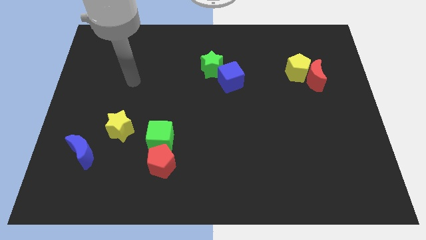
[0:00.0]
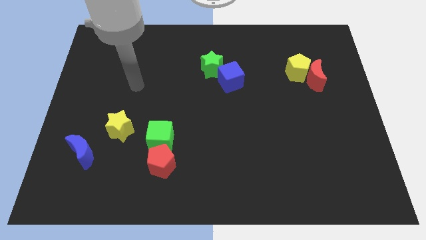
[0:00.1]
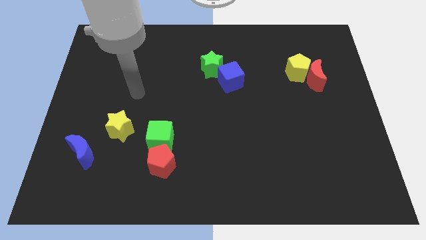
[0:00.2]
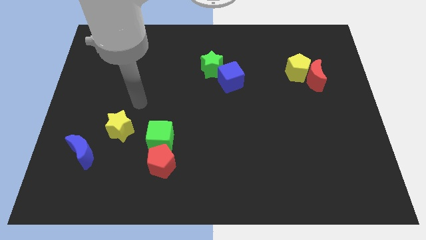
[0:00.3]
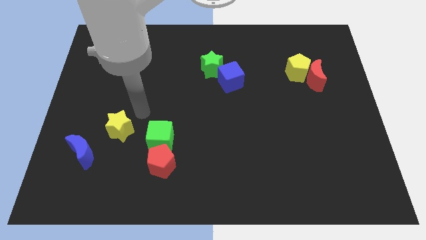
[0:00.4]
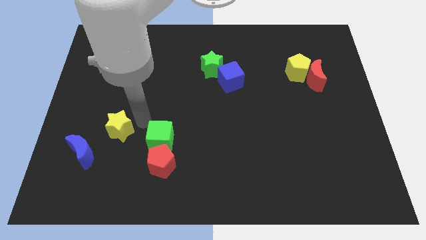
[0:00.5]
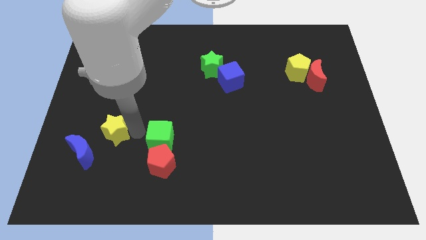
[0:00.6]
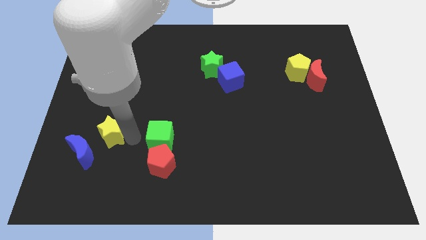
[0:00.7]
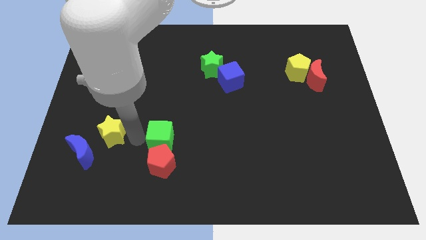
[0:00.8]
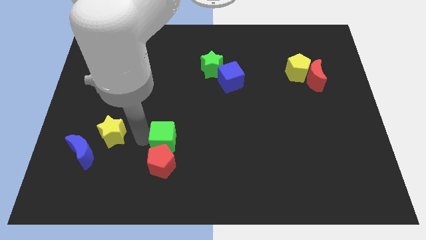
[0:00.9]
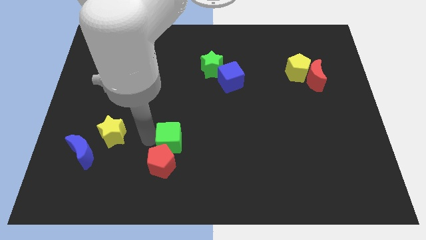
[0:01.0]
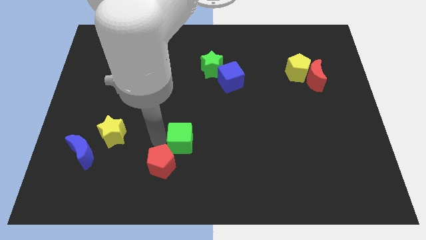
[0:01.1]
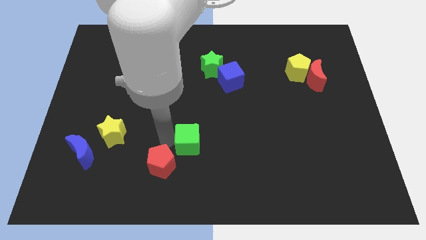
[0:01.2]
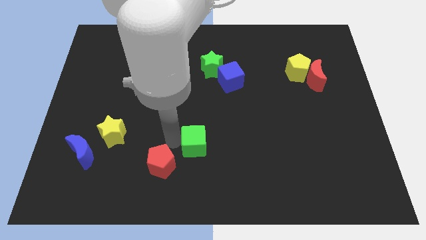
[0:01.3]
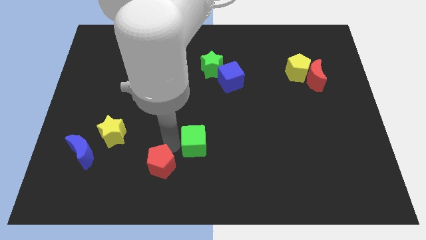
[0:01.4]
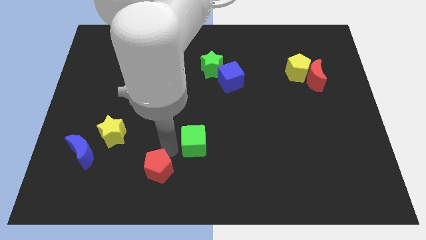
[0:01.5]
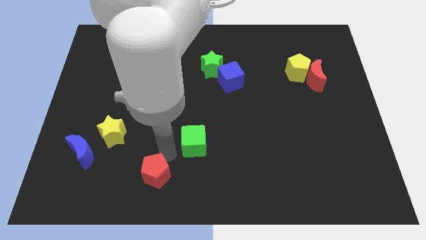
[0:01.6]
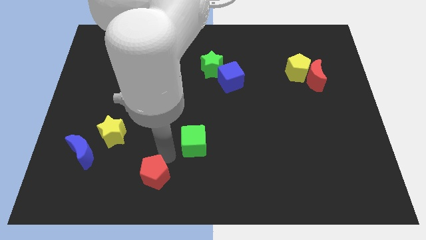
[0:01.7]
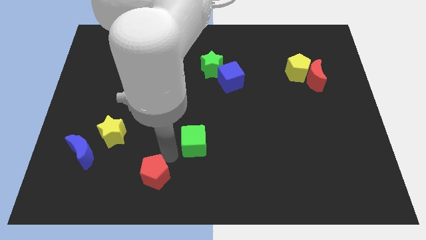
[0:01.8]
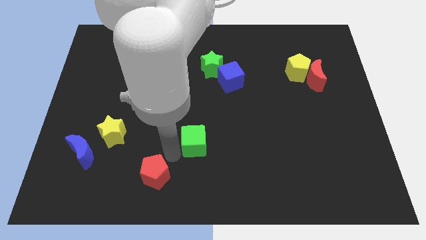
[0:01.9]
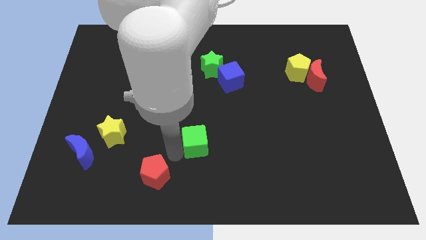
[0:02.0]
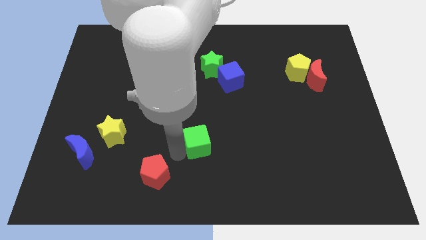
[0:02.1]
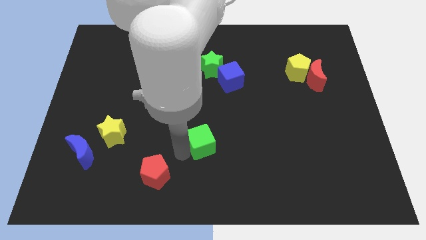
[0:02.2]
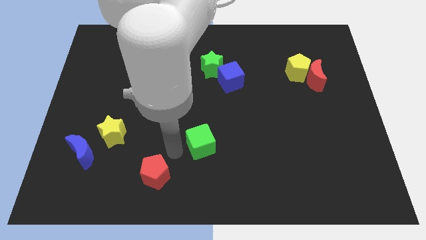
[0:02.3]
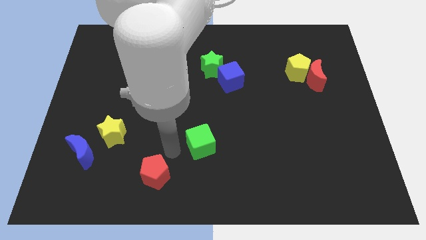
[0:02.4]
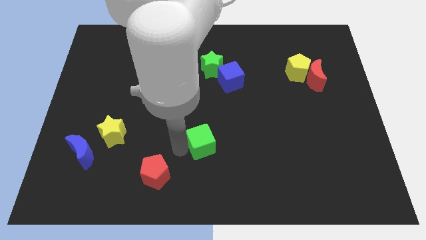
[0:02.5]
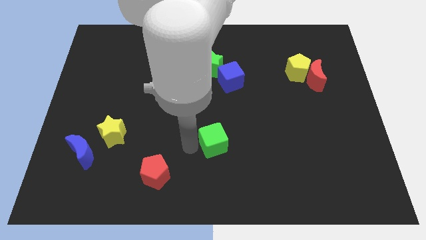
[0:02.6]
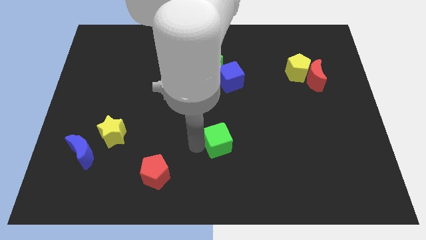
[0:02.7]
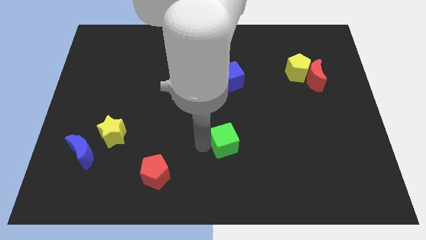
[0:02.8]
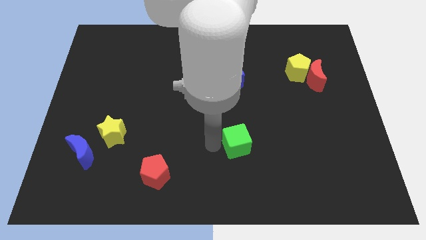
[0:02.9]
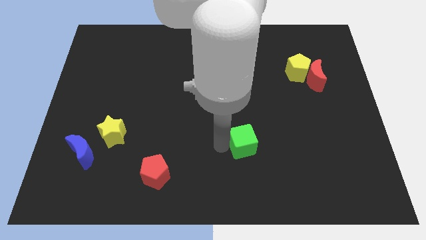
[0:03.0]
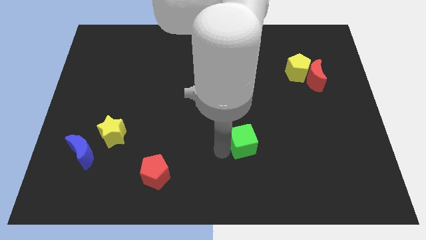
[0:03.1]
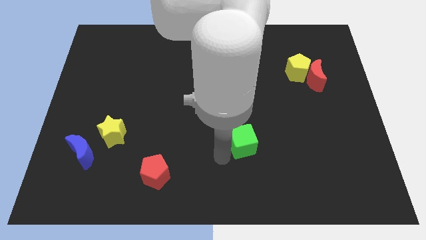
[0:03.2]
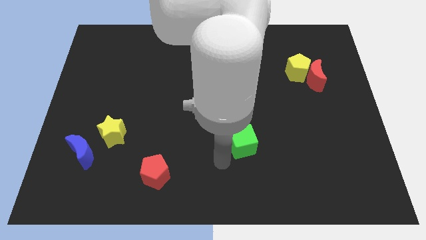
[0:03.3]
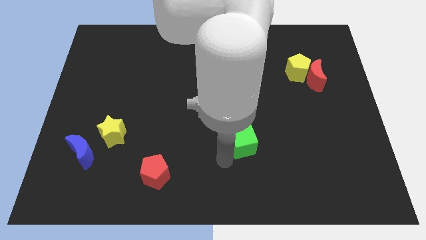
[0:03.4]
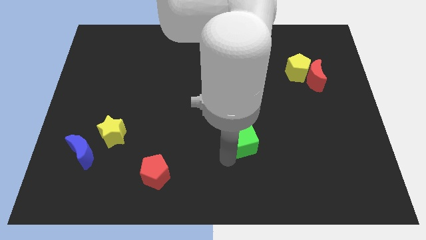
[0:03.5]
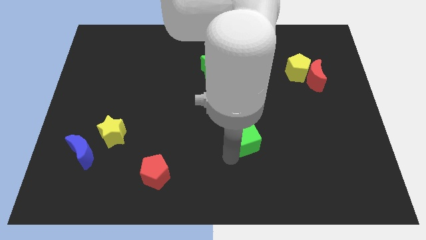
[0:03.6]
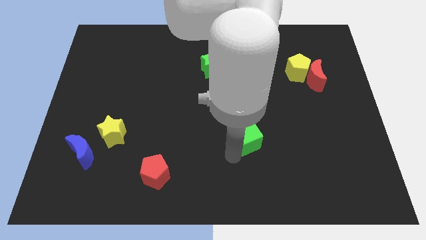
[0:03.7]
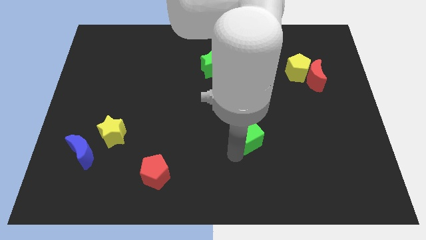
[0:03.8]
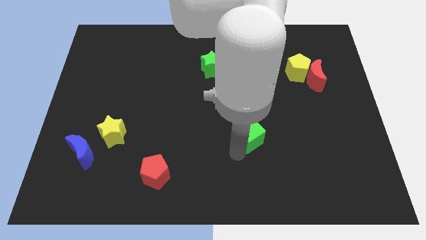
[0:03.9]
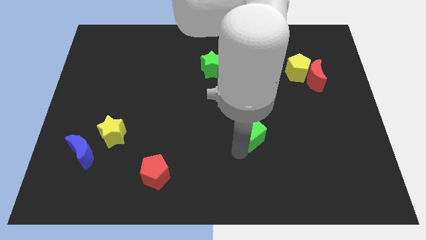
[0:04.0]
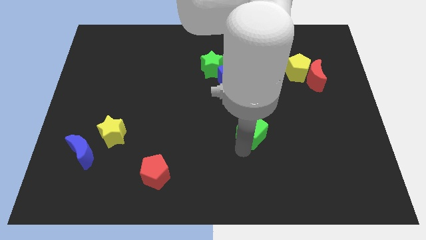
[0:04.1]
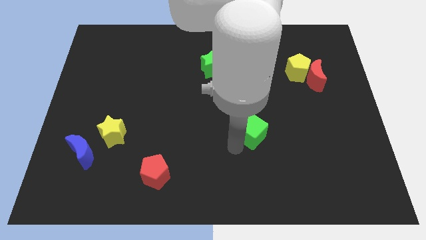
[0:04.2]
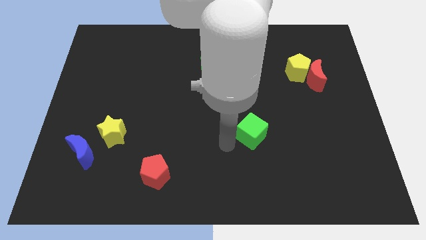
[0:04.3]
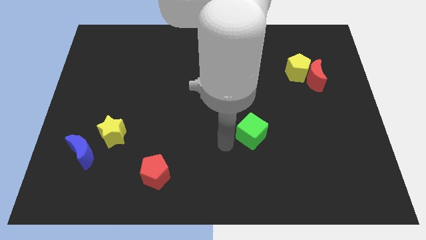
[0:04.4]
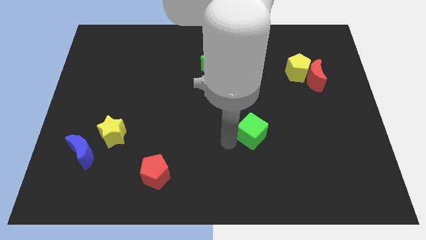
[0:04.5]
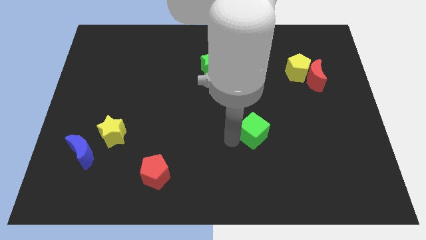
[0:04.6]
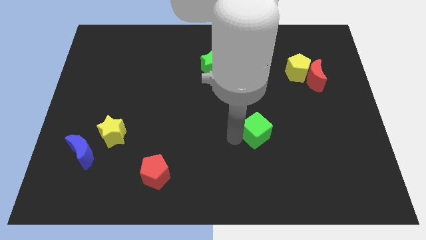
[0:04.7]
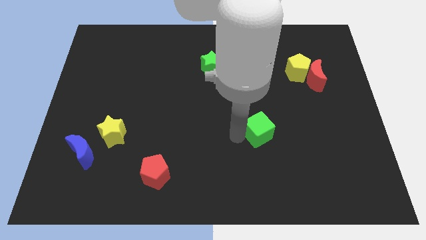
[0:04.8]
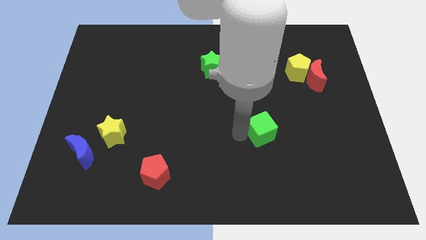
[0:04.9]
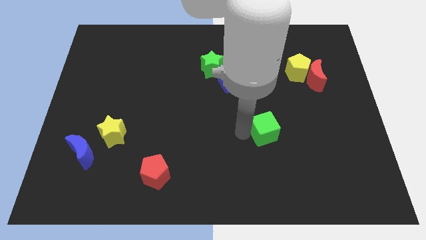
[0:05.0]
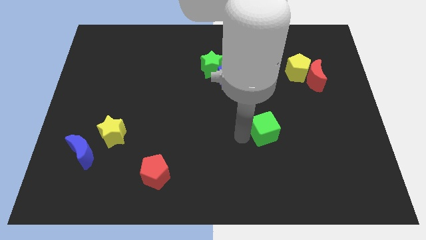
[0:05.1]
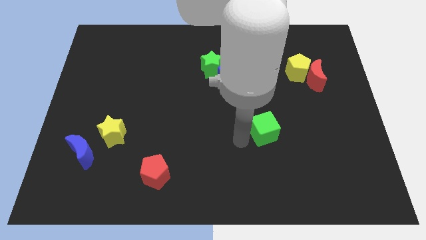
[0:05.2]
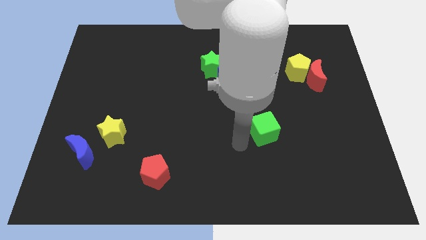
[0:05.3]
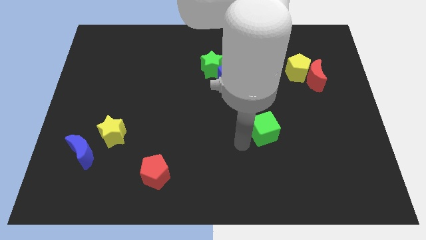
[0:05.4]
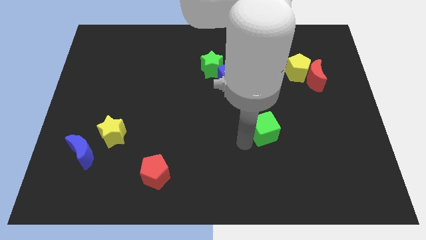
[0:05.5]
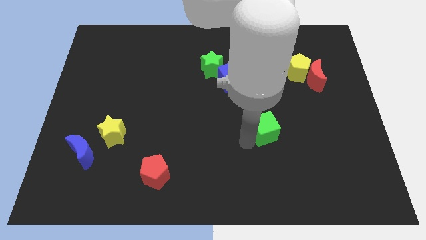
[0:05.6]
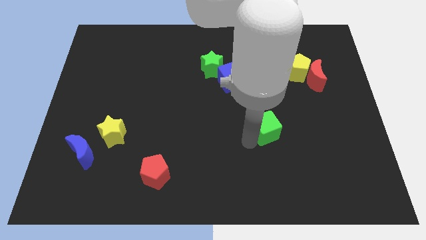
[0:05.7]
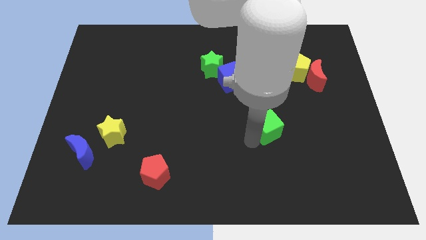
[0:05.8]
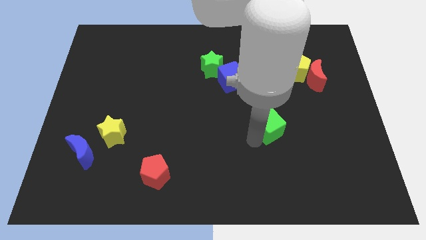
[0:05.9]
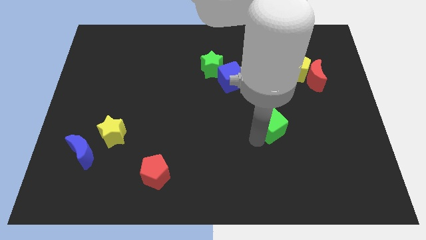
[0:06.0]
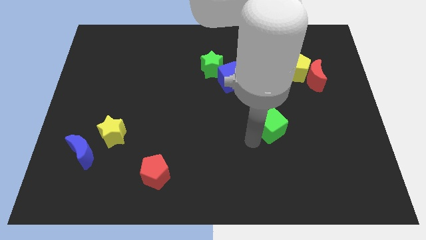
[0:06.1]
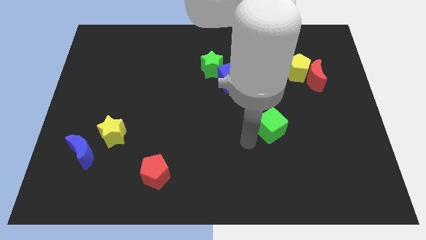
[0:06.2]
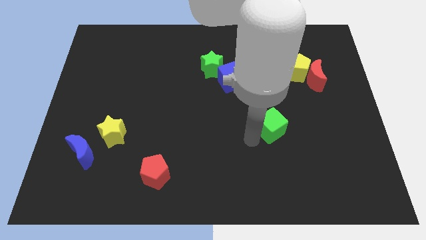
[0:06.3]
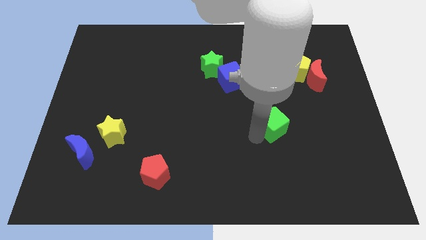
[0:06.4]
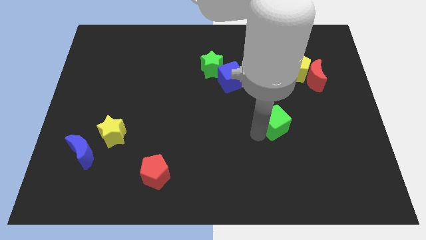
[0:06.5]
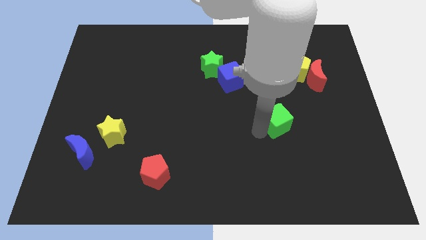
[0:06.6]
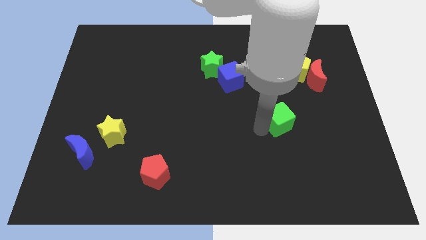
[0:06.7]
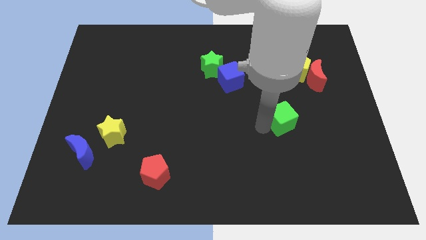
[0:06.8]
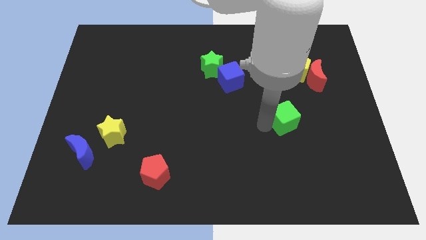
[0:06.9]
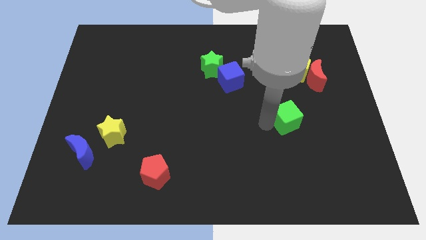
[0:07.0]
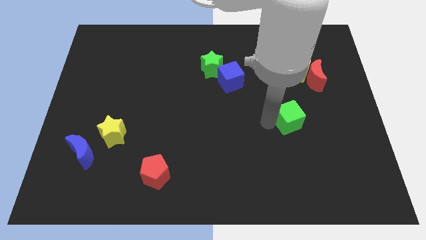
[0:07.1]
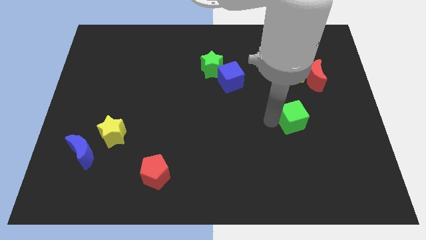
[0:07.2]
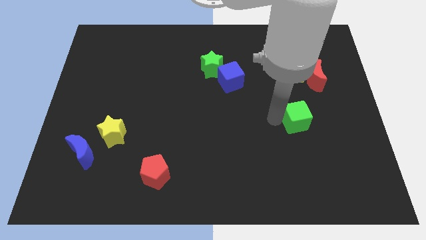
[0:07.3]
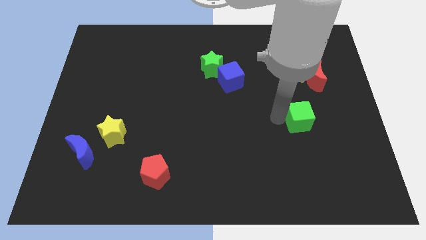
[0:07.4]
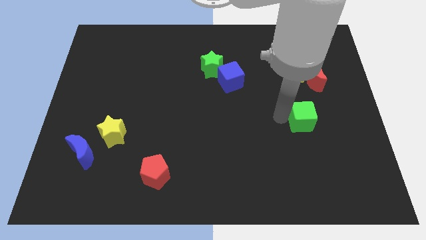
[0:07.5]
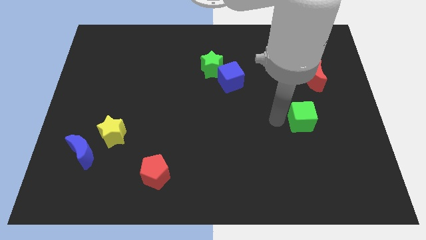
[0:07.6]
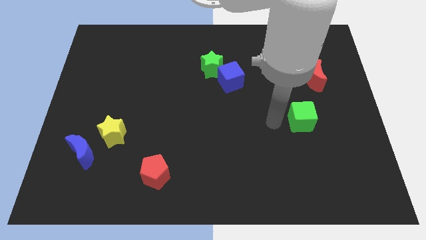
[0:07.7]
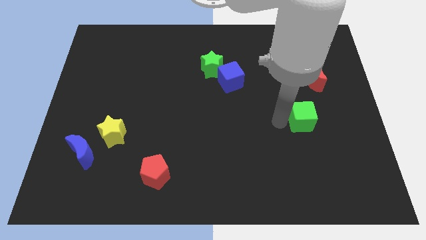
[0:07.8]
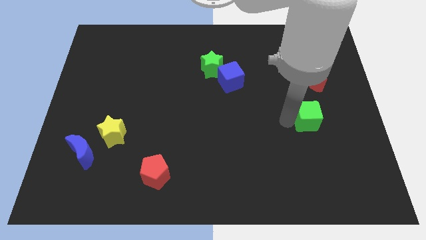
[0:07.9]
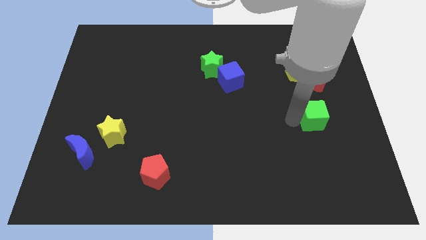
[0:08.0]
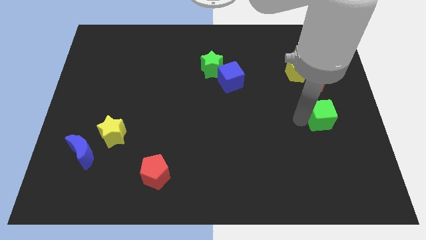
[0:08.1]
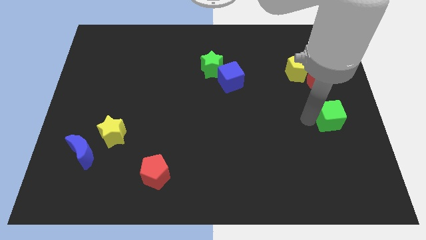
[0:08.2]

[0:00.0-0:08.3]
move the green cube to the right side
